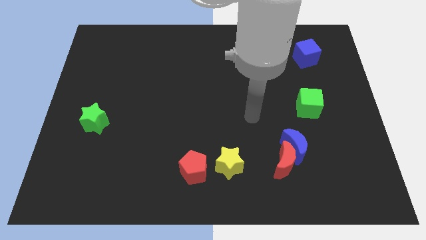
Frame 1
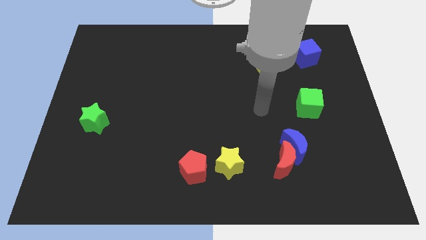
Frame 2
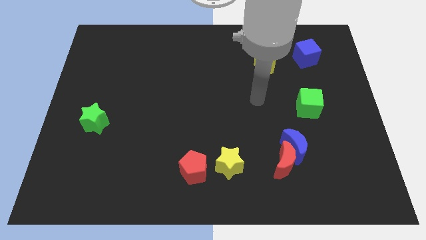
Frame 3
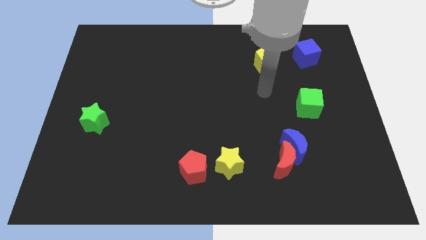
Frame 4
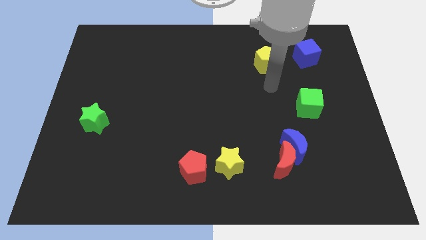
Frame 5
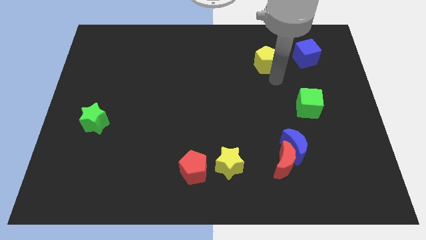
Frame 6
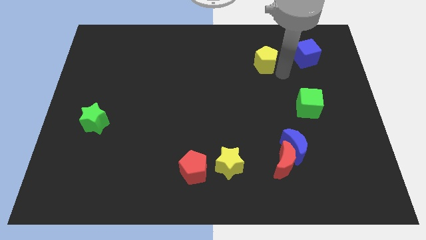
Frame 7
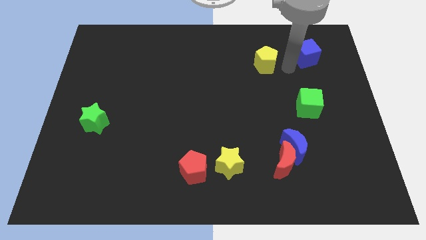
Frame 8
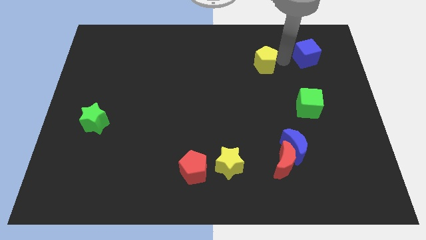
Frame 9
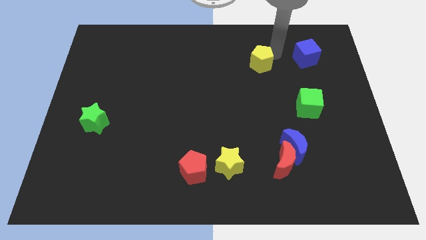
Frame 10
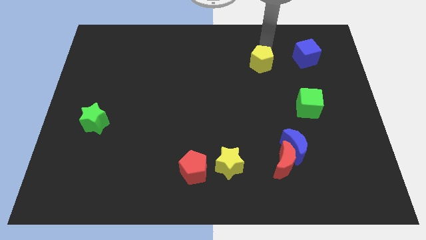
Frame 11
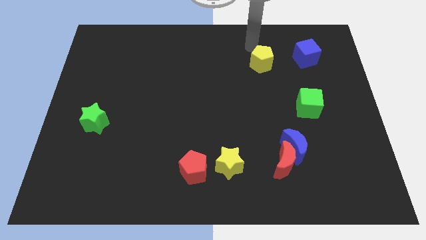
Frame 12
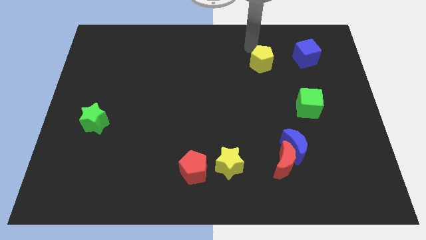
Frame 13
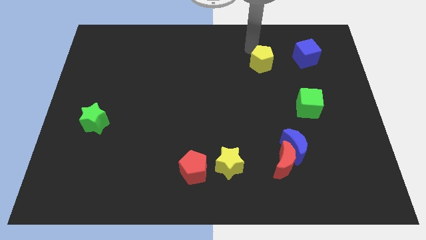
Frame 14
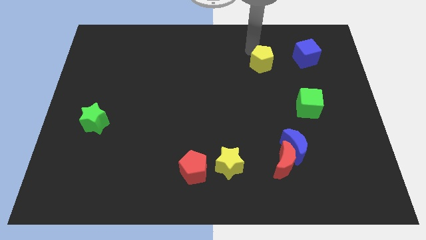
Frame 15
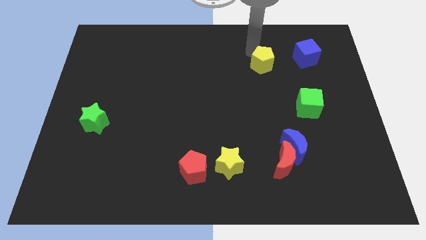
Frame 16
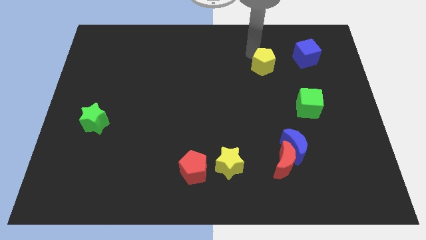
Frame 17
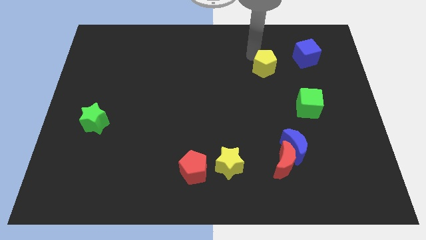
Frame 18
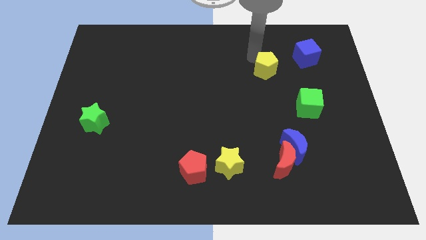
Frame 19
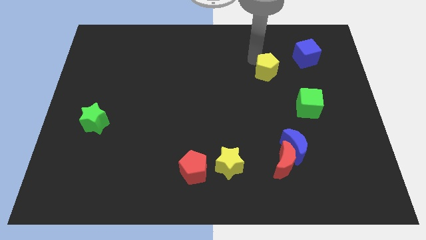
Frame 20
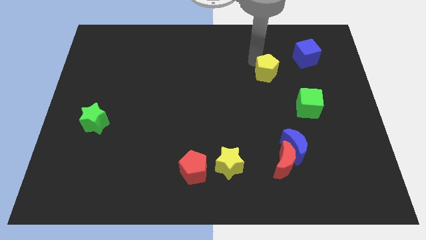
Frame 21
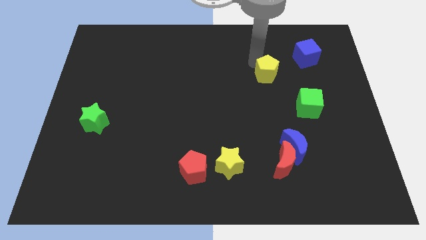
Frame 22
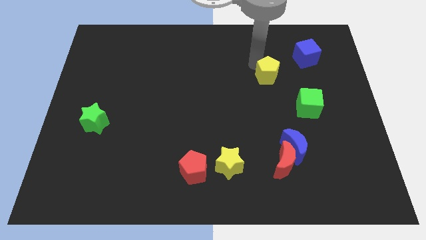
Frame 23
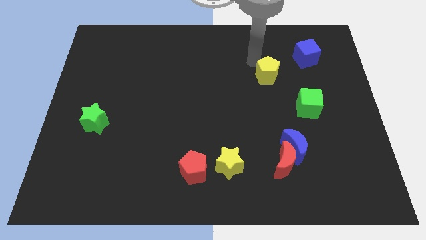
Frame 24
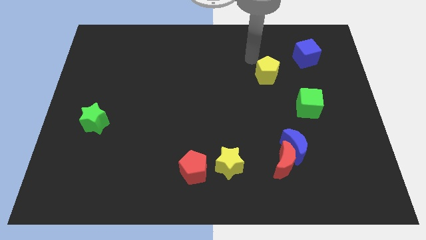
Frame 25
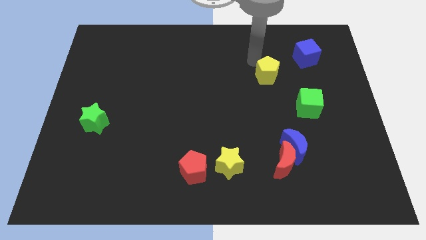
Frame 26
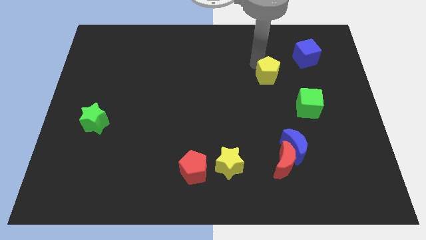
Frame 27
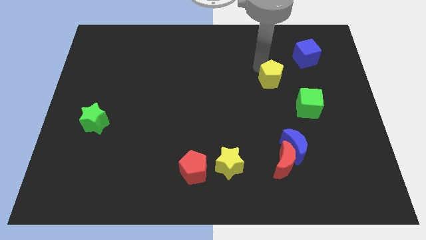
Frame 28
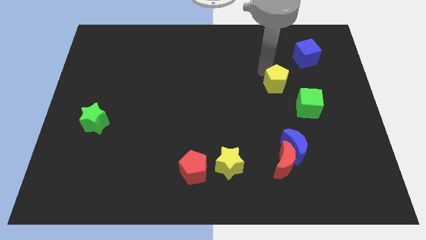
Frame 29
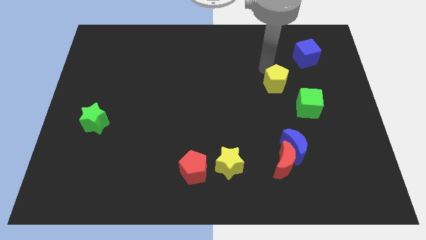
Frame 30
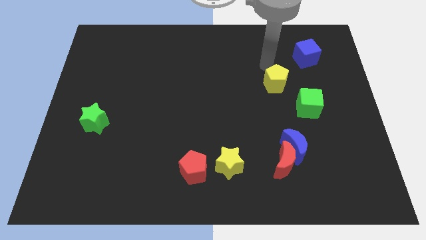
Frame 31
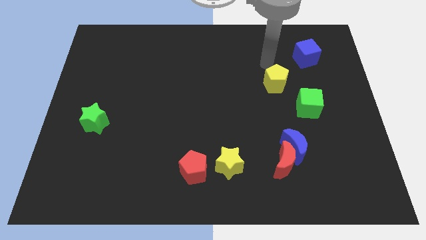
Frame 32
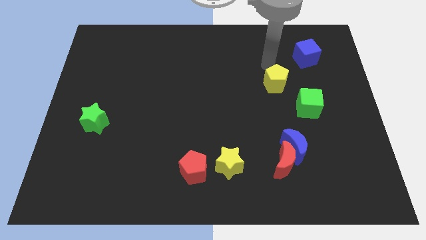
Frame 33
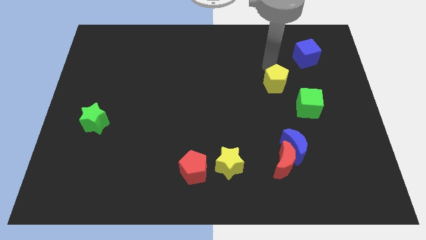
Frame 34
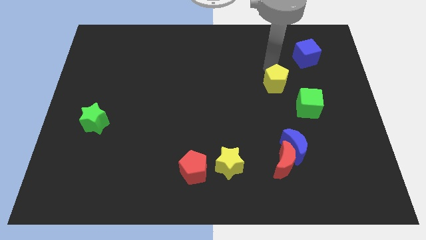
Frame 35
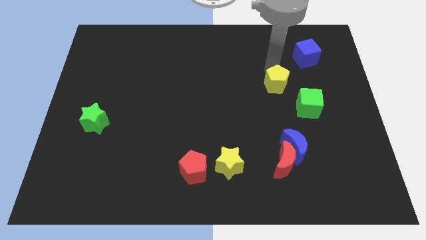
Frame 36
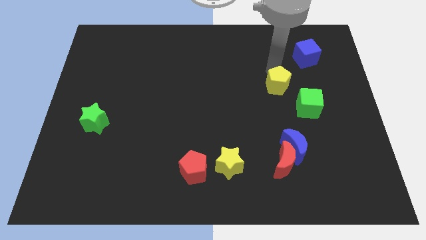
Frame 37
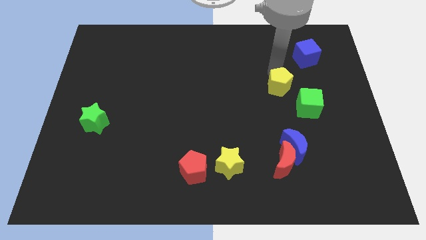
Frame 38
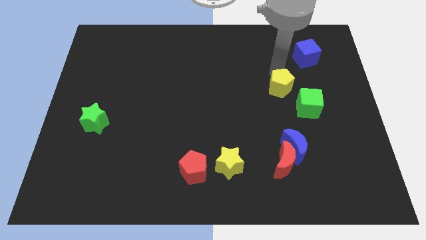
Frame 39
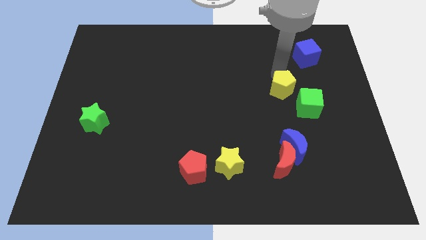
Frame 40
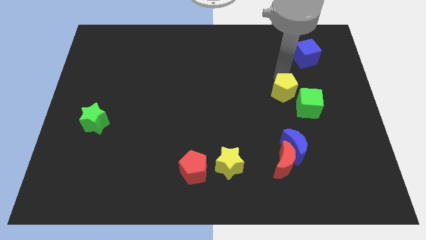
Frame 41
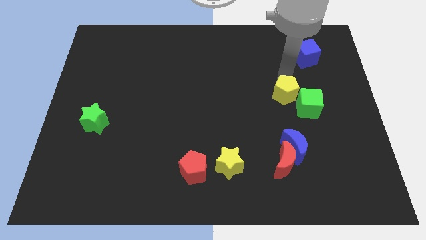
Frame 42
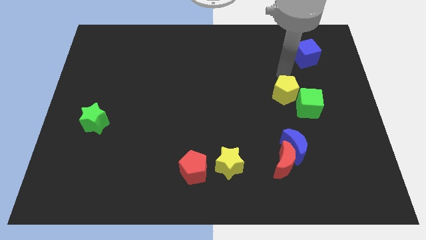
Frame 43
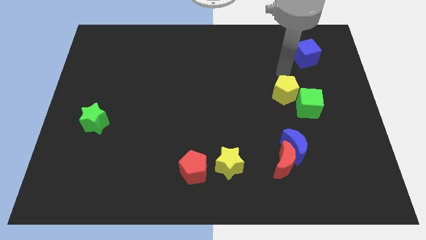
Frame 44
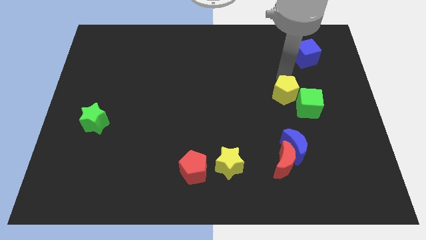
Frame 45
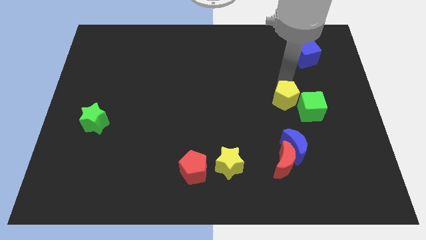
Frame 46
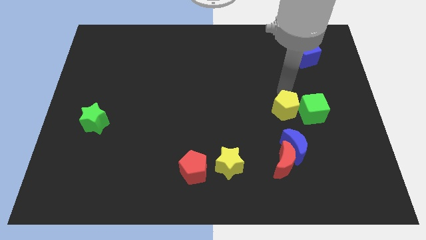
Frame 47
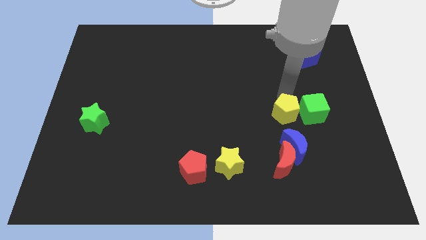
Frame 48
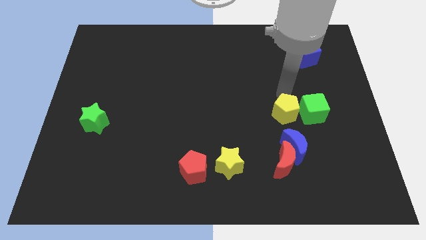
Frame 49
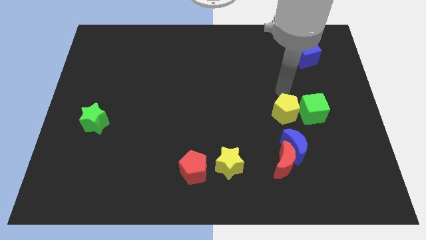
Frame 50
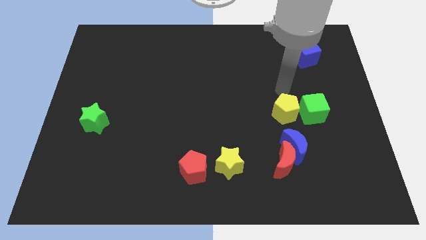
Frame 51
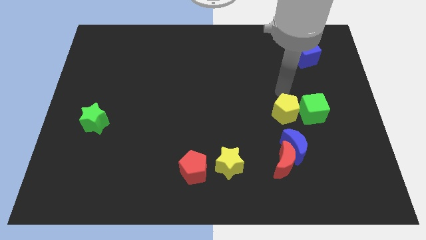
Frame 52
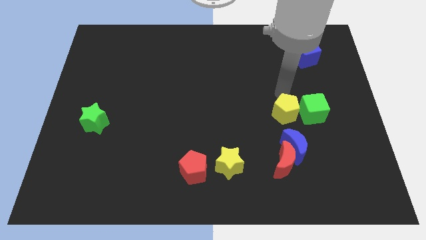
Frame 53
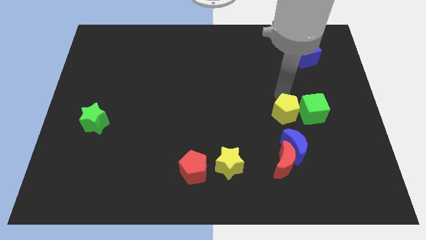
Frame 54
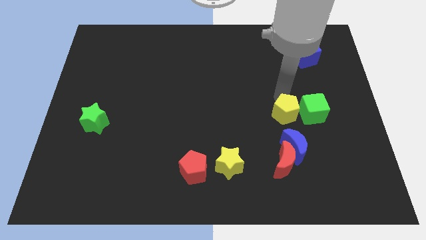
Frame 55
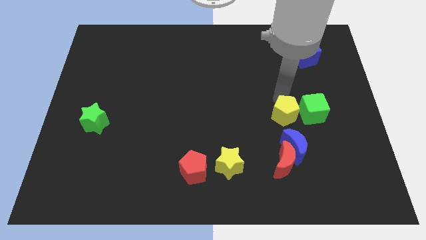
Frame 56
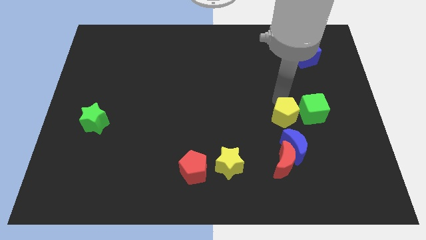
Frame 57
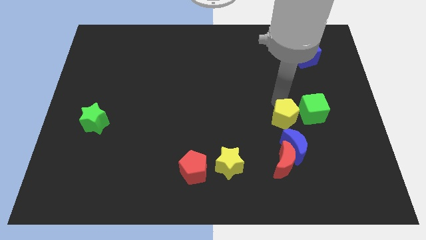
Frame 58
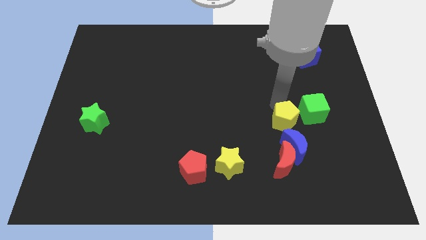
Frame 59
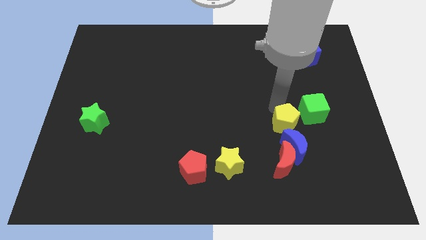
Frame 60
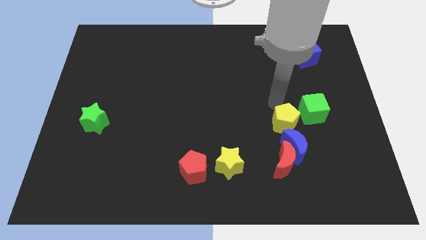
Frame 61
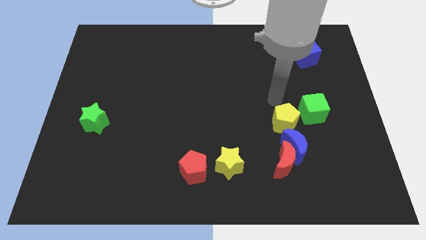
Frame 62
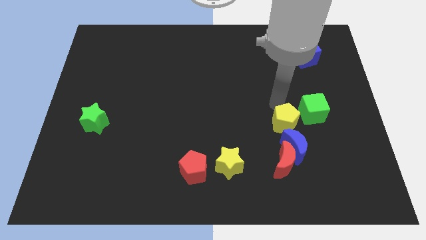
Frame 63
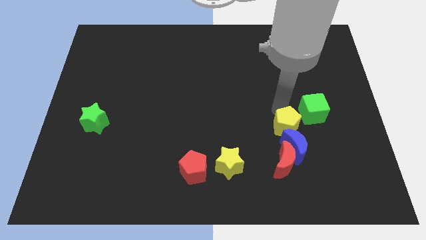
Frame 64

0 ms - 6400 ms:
put the yellow pentagon to the blue moon
